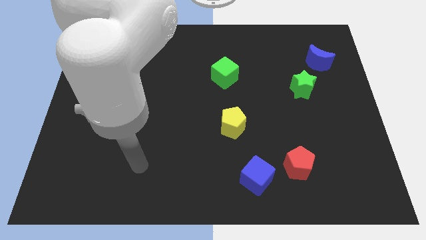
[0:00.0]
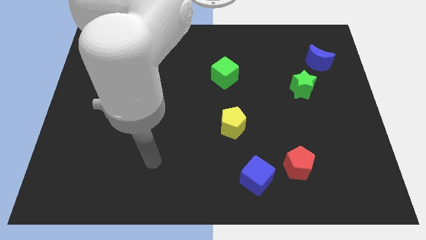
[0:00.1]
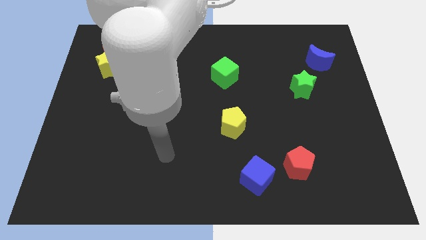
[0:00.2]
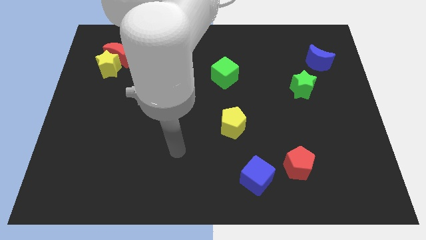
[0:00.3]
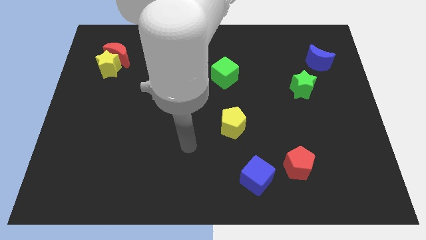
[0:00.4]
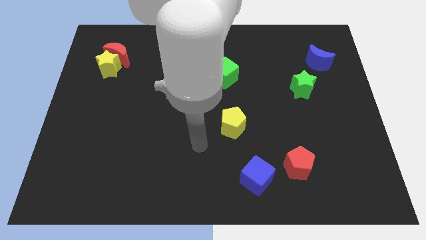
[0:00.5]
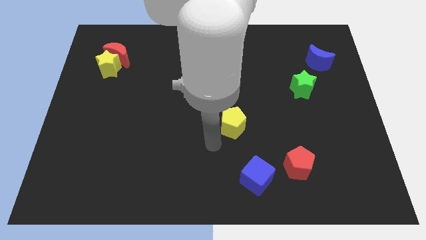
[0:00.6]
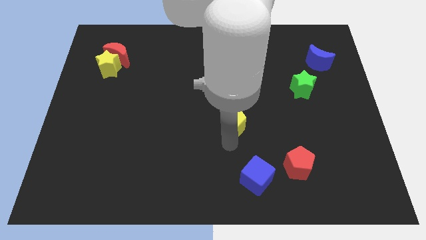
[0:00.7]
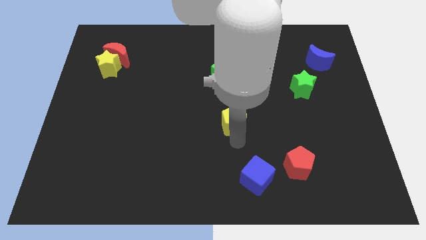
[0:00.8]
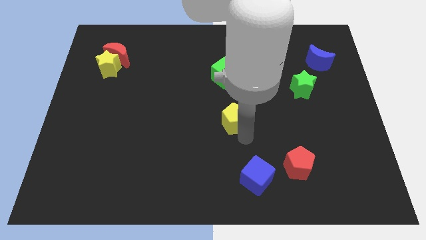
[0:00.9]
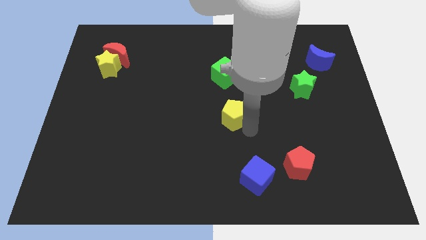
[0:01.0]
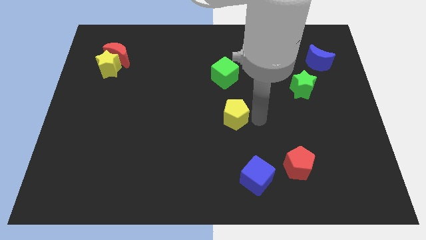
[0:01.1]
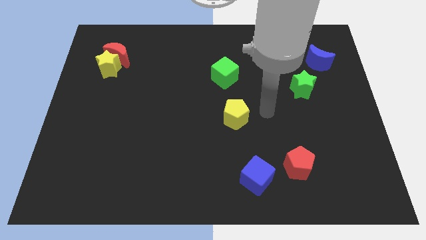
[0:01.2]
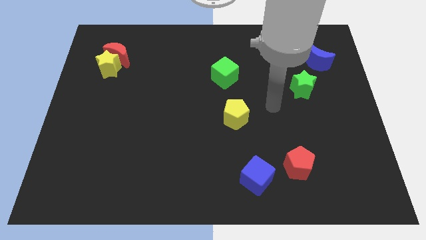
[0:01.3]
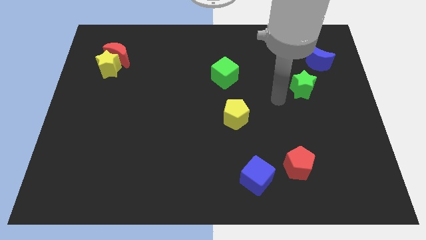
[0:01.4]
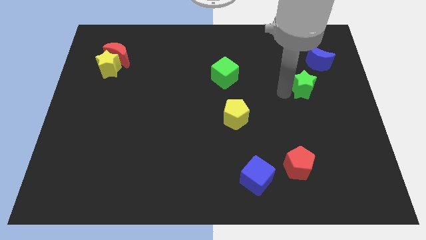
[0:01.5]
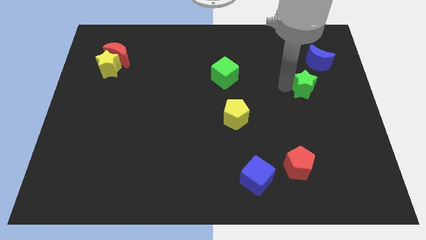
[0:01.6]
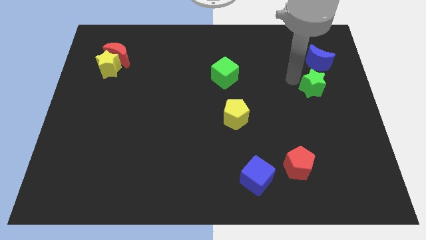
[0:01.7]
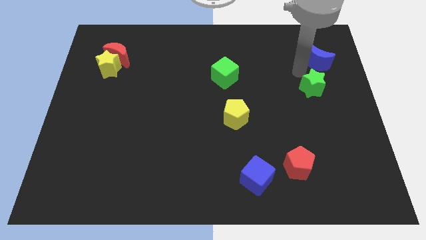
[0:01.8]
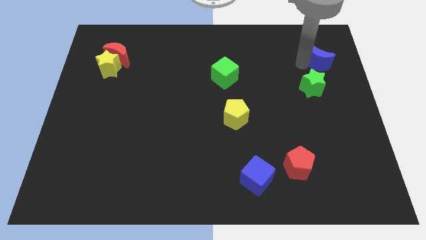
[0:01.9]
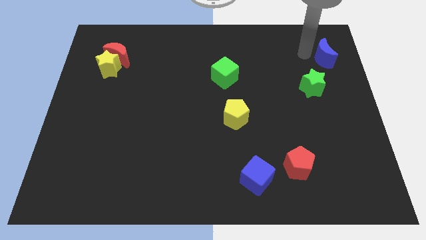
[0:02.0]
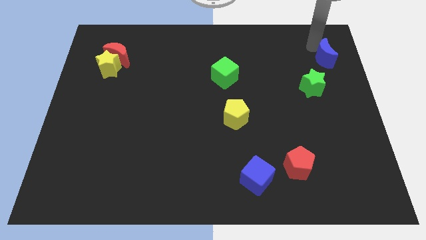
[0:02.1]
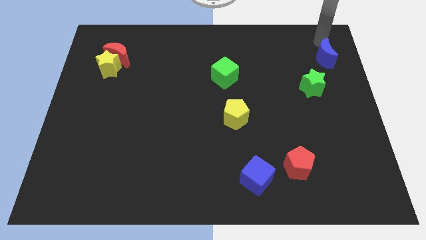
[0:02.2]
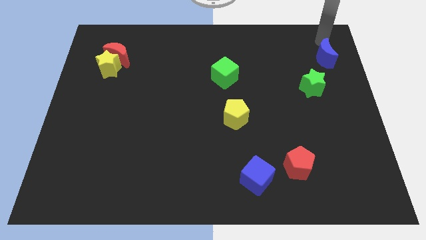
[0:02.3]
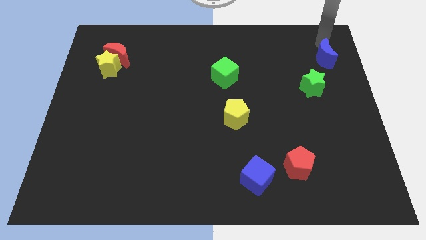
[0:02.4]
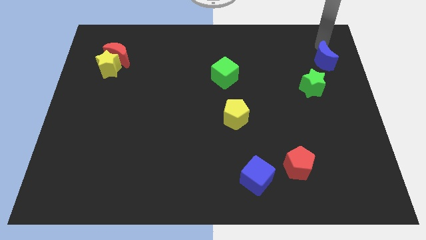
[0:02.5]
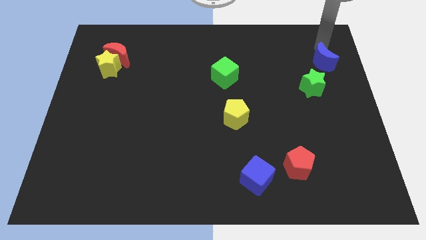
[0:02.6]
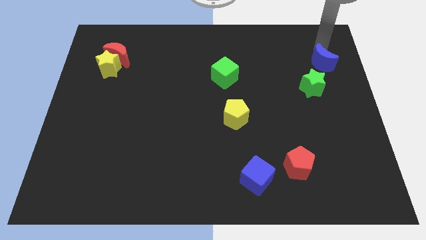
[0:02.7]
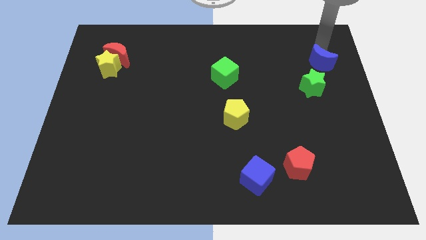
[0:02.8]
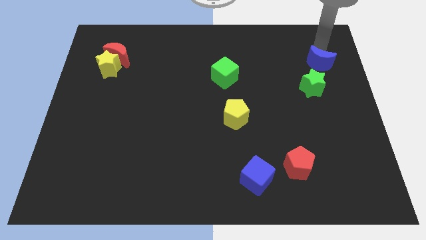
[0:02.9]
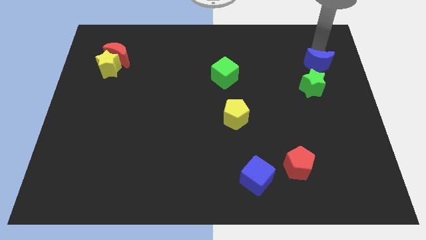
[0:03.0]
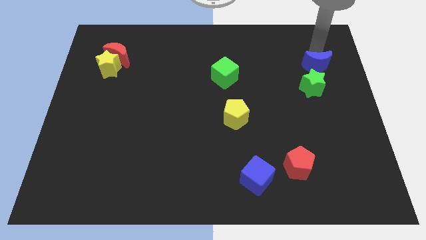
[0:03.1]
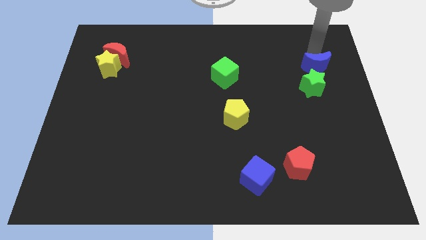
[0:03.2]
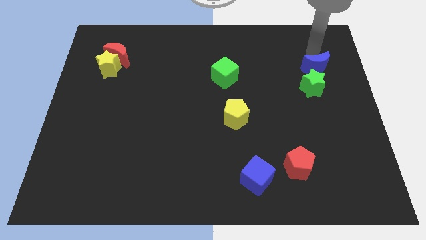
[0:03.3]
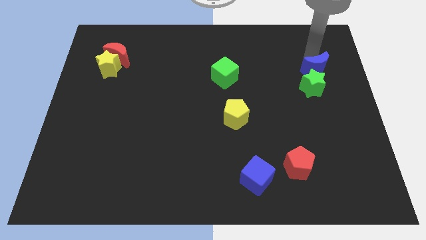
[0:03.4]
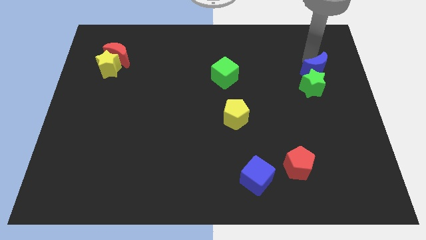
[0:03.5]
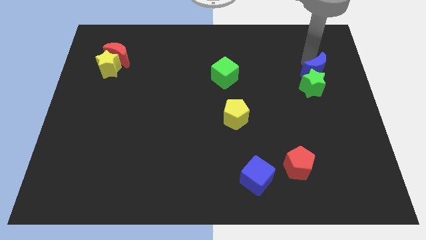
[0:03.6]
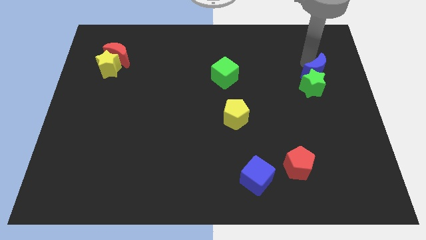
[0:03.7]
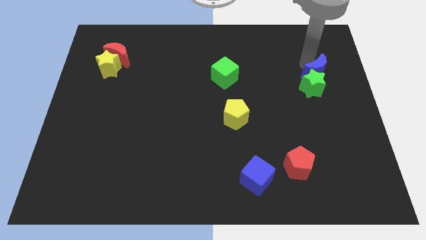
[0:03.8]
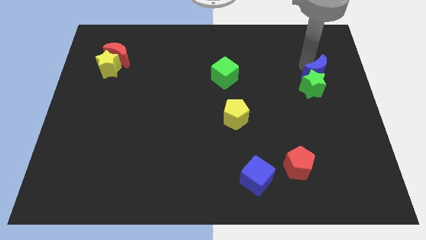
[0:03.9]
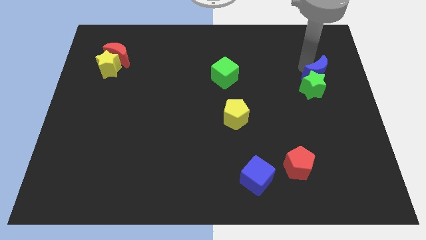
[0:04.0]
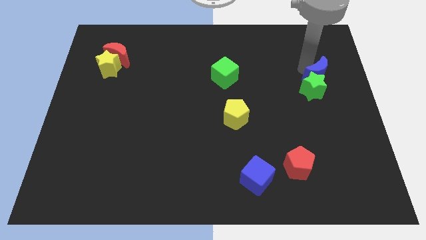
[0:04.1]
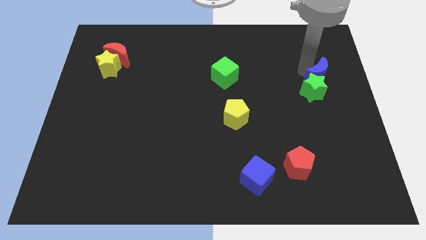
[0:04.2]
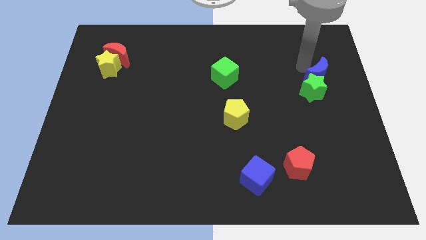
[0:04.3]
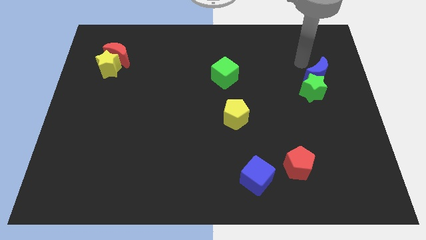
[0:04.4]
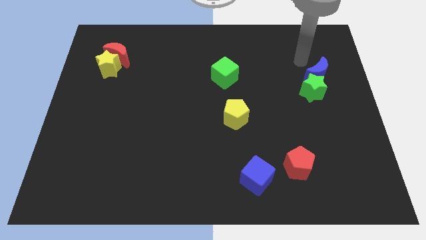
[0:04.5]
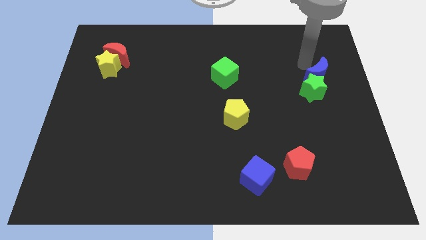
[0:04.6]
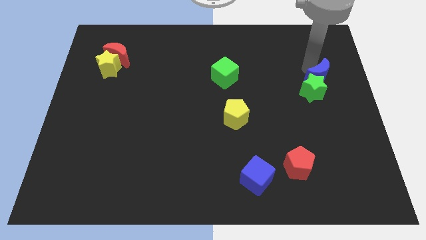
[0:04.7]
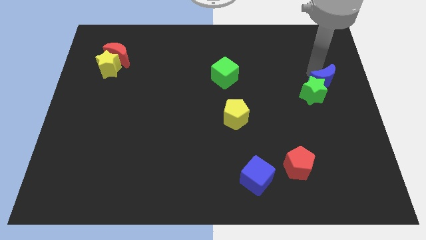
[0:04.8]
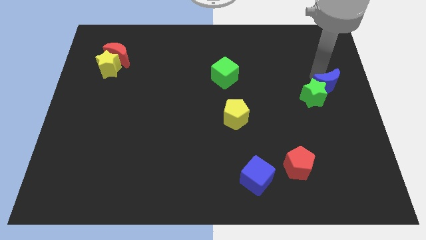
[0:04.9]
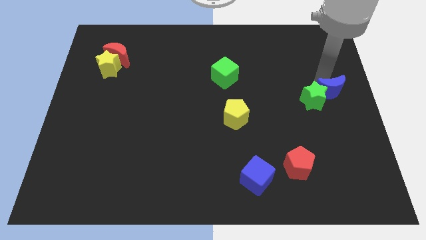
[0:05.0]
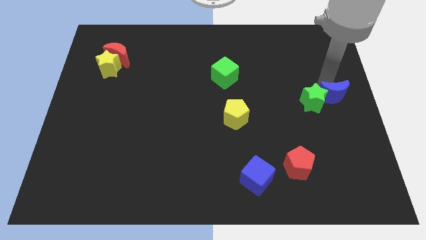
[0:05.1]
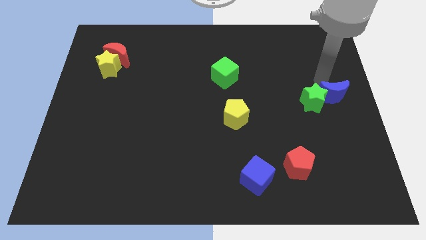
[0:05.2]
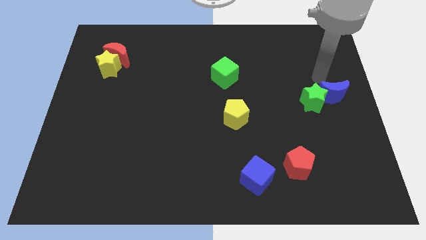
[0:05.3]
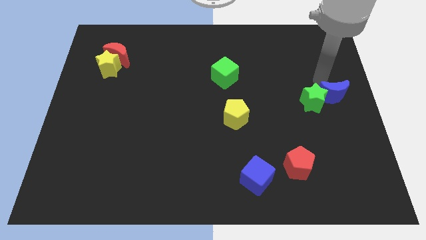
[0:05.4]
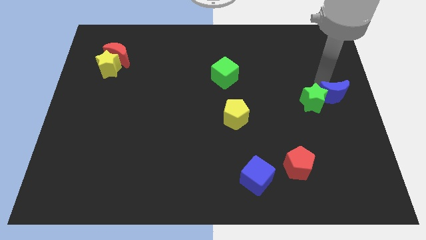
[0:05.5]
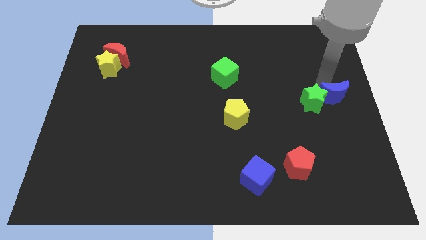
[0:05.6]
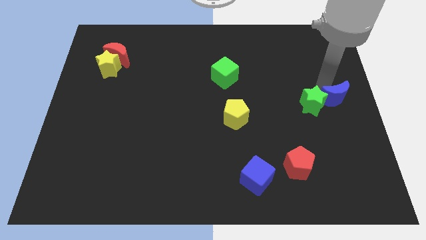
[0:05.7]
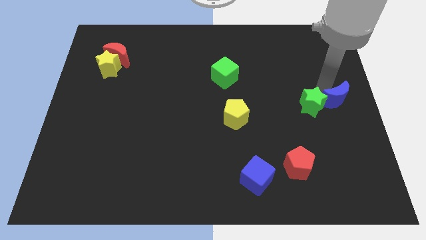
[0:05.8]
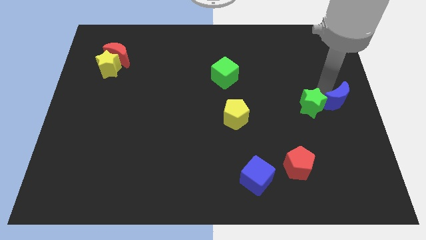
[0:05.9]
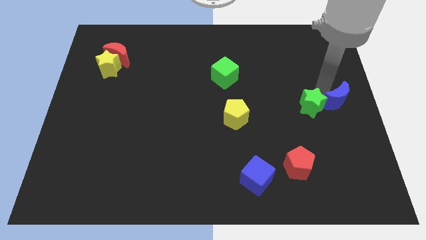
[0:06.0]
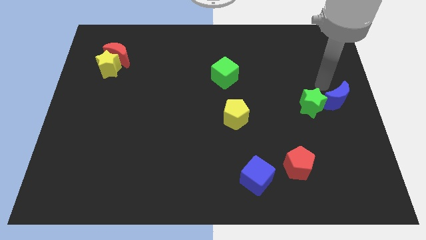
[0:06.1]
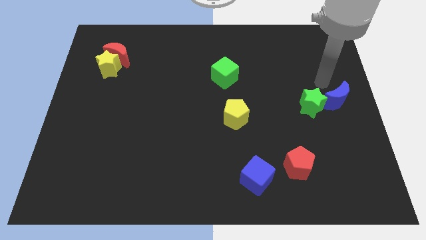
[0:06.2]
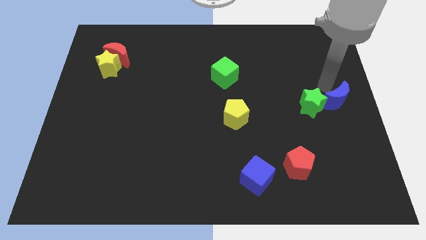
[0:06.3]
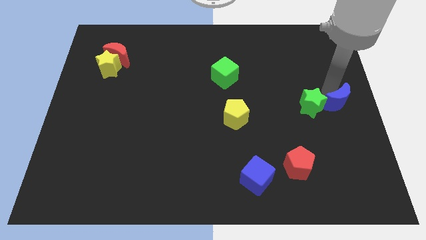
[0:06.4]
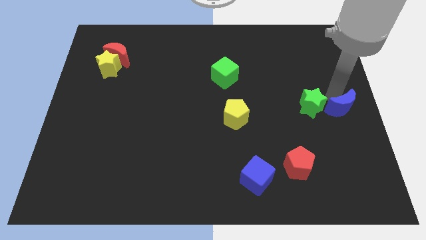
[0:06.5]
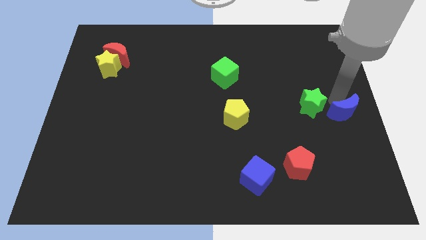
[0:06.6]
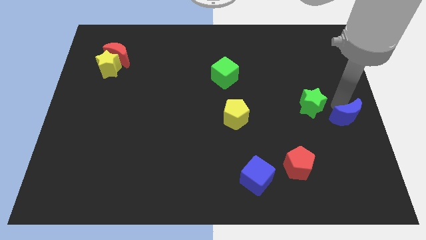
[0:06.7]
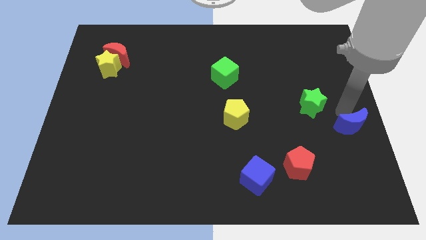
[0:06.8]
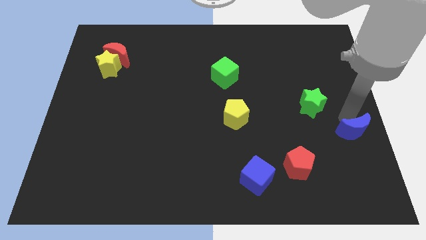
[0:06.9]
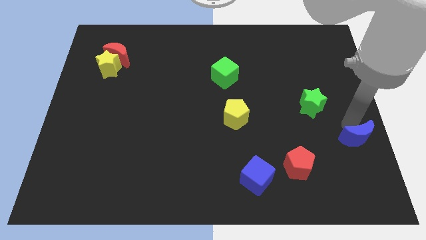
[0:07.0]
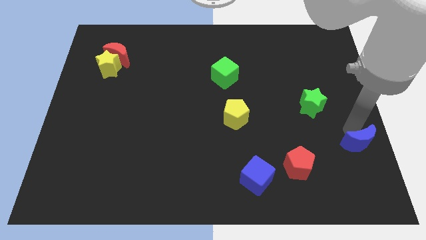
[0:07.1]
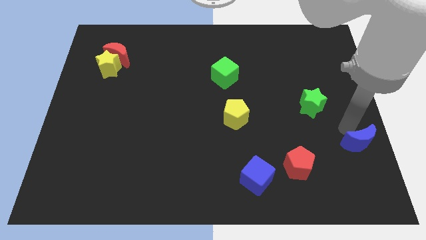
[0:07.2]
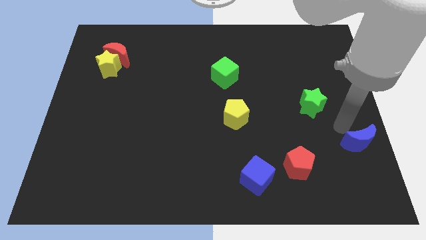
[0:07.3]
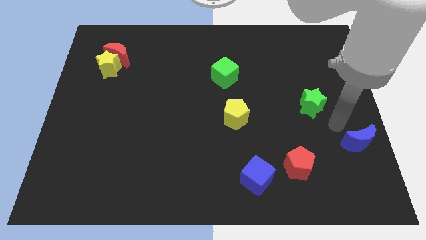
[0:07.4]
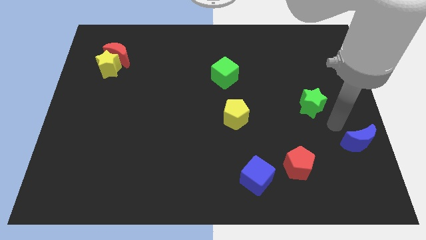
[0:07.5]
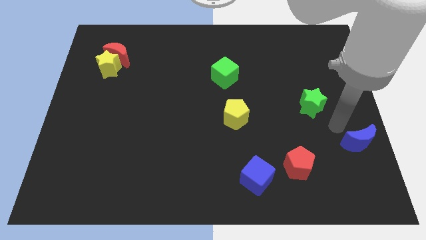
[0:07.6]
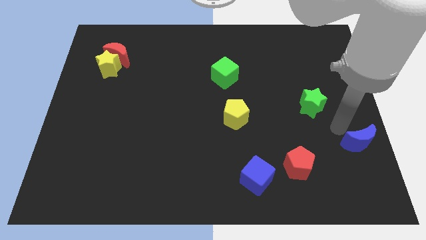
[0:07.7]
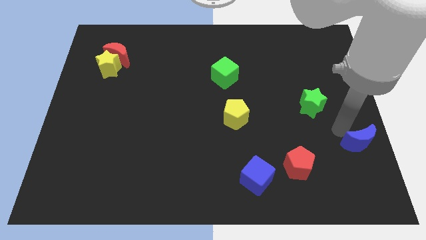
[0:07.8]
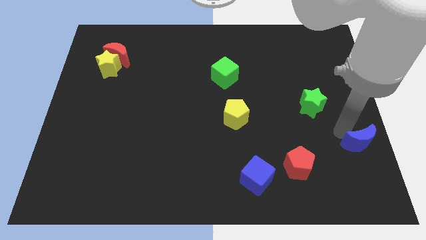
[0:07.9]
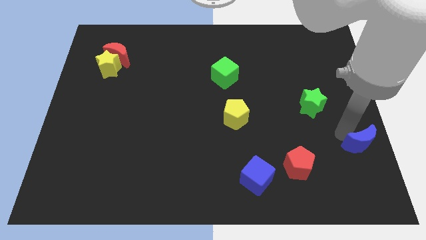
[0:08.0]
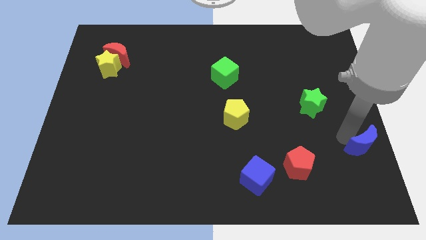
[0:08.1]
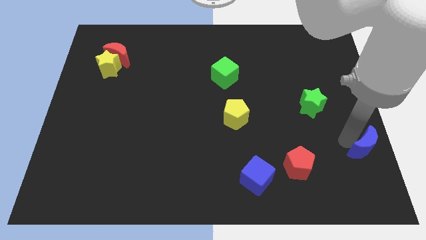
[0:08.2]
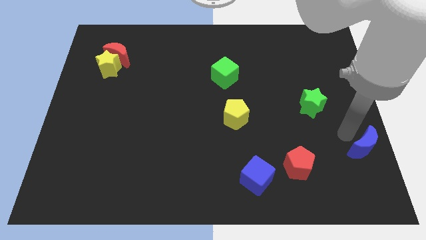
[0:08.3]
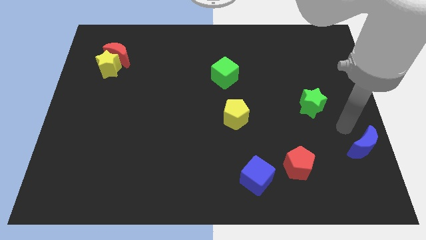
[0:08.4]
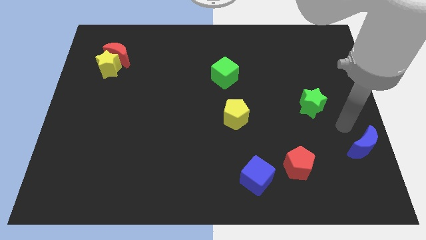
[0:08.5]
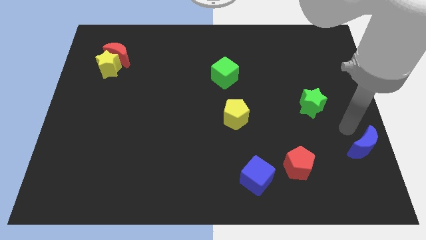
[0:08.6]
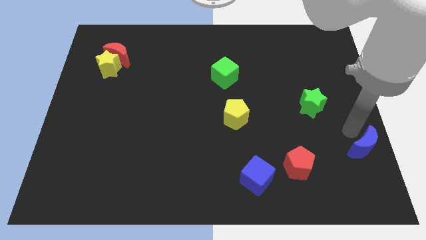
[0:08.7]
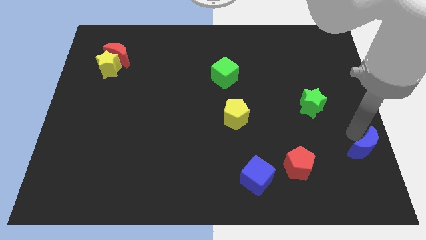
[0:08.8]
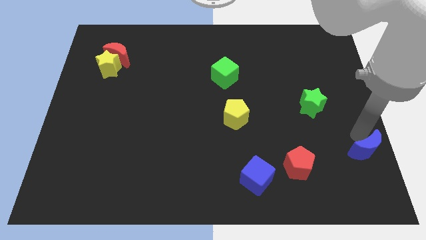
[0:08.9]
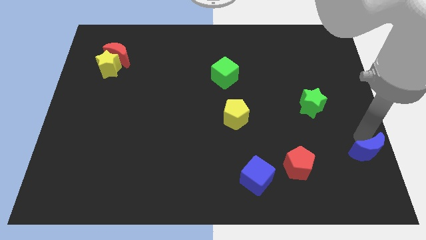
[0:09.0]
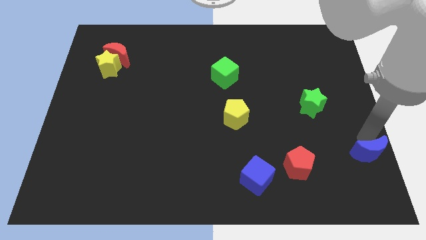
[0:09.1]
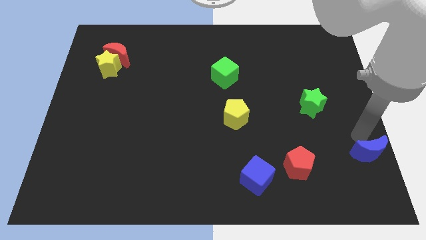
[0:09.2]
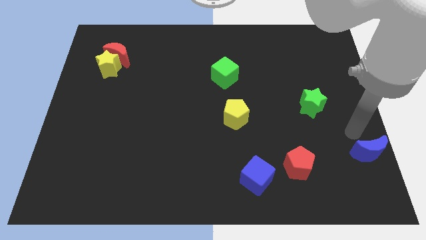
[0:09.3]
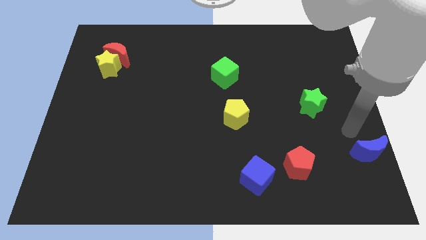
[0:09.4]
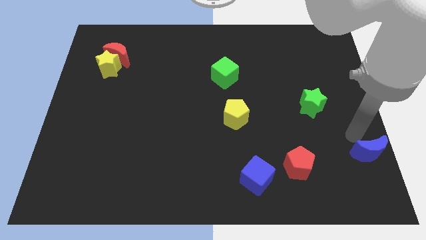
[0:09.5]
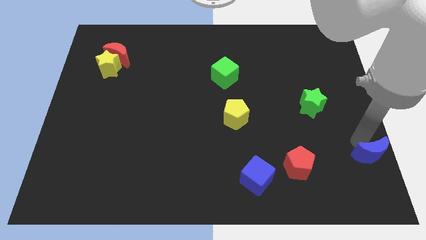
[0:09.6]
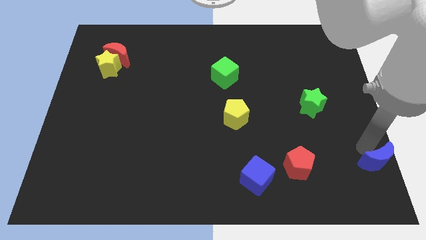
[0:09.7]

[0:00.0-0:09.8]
slide the blue moon to the bottom right of the board
